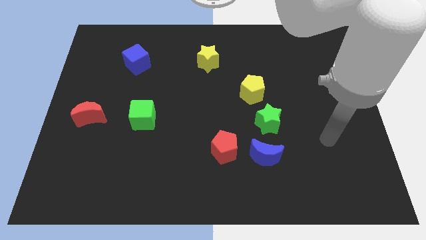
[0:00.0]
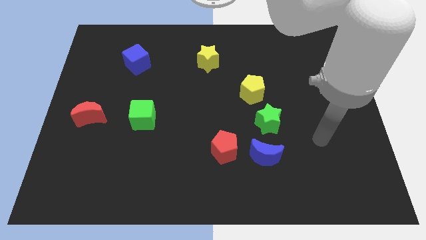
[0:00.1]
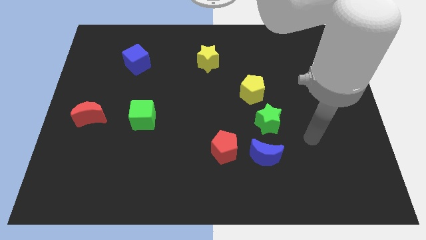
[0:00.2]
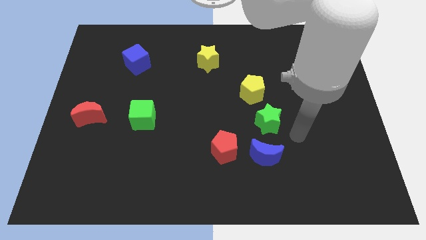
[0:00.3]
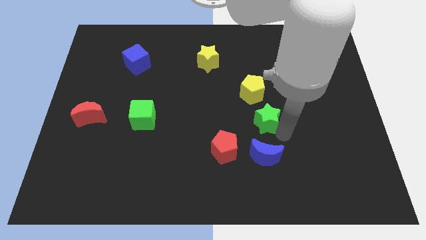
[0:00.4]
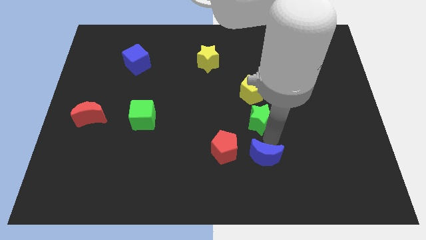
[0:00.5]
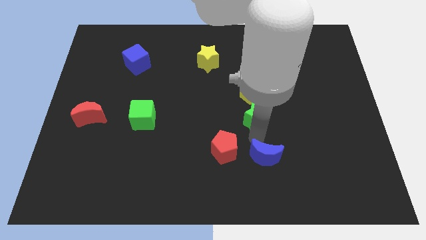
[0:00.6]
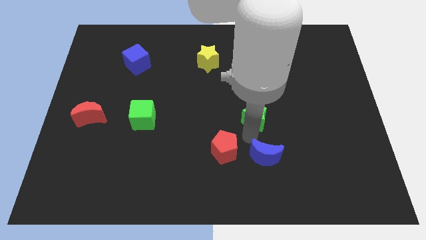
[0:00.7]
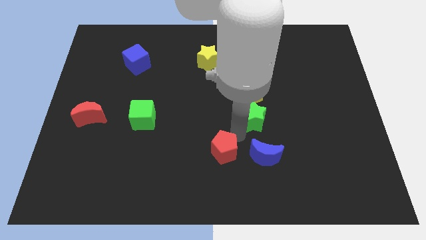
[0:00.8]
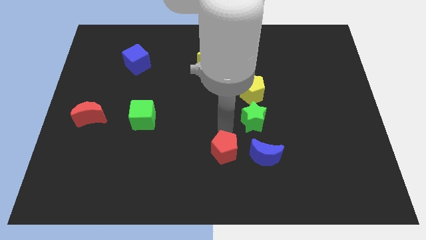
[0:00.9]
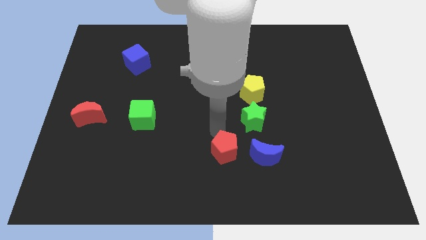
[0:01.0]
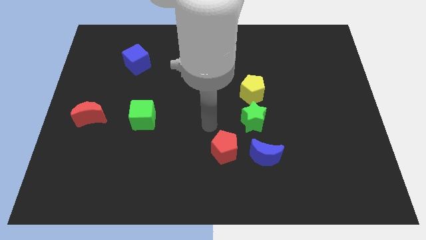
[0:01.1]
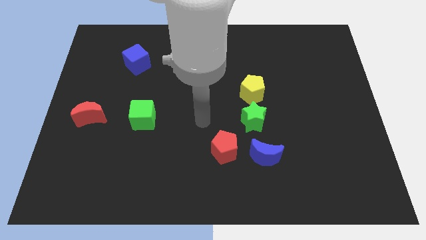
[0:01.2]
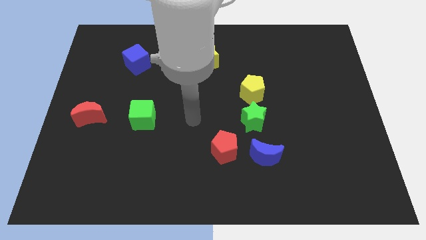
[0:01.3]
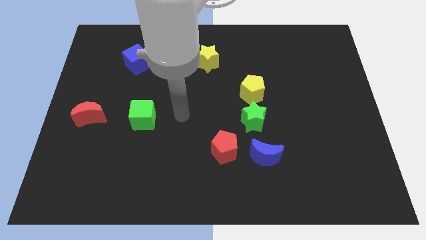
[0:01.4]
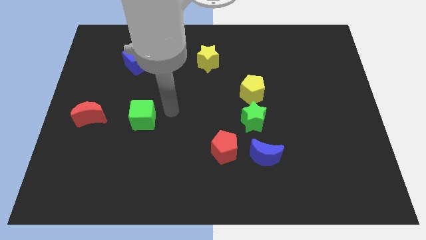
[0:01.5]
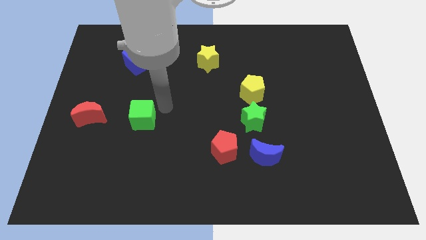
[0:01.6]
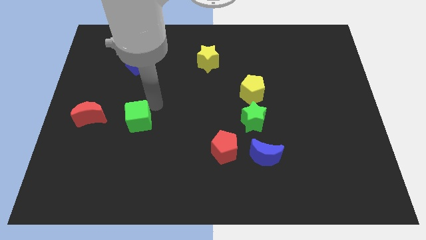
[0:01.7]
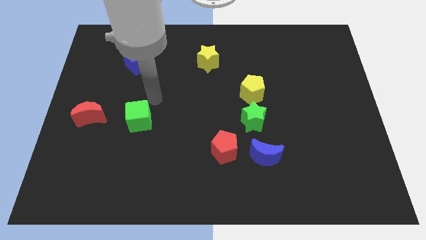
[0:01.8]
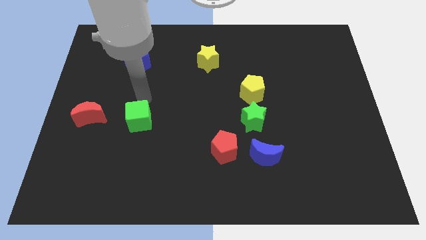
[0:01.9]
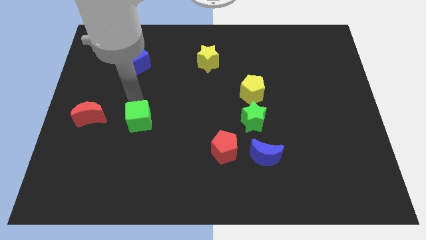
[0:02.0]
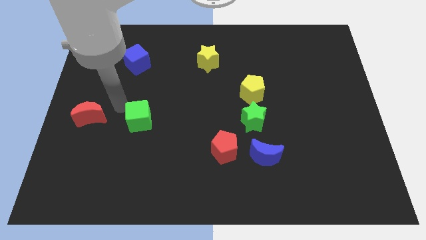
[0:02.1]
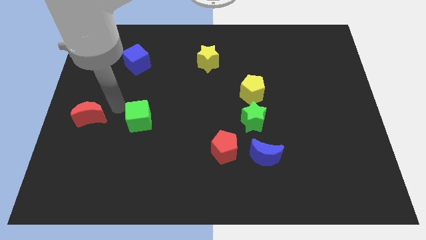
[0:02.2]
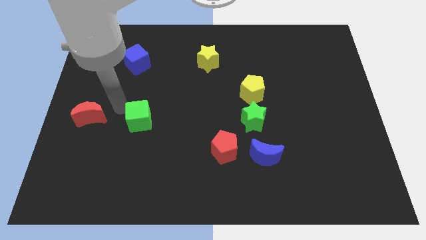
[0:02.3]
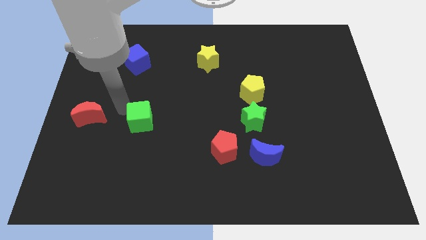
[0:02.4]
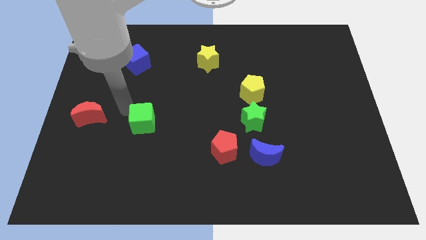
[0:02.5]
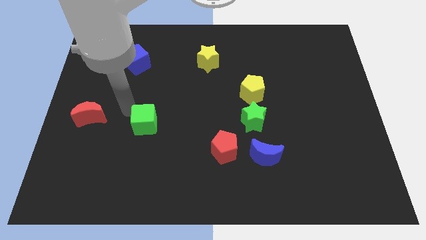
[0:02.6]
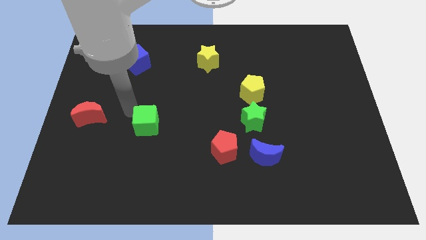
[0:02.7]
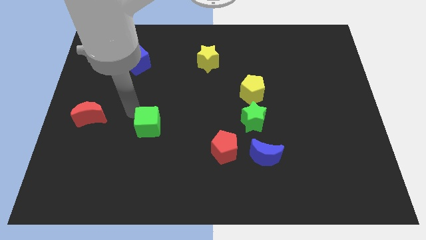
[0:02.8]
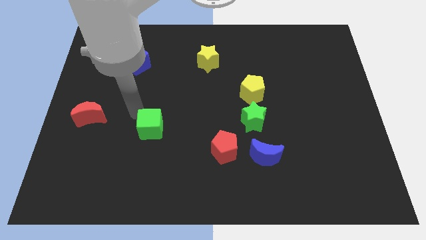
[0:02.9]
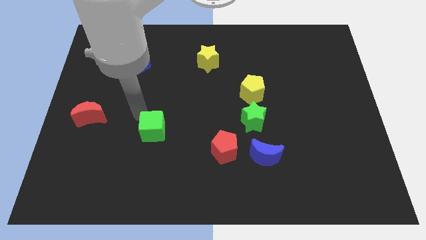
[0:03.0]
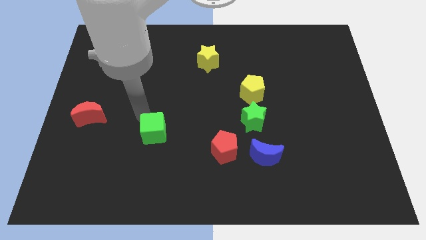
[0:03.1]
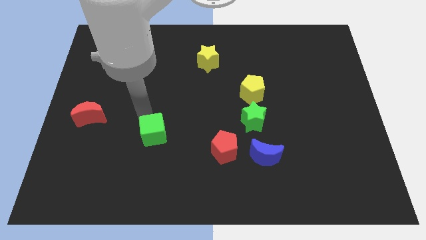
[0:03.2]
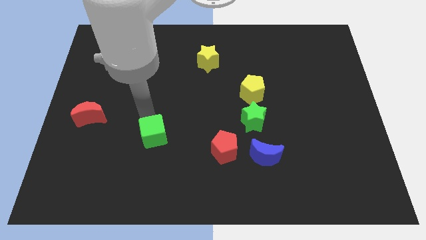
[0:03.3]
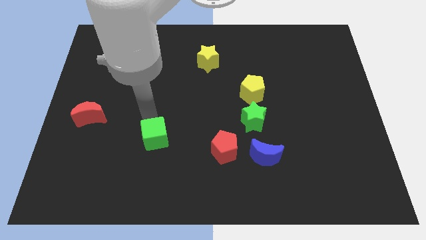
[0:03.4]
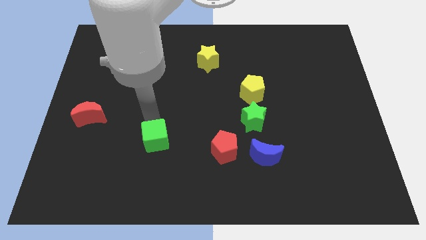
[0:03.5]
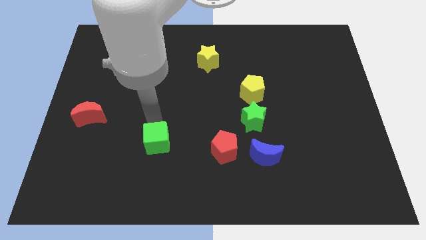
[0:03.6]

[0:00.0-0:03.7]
slightly push the green cube down and then to the right

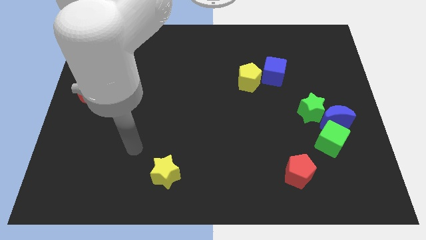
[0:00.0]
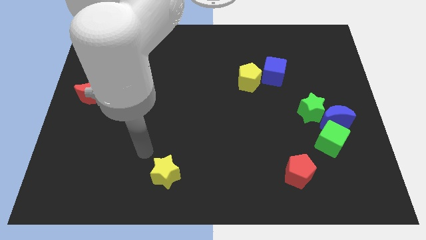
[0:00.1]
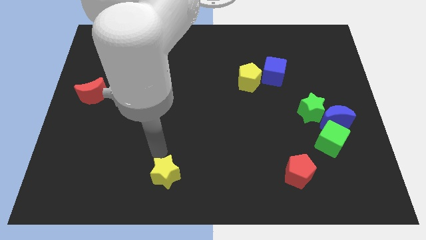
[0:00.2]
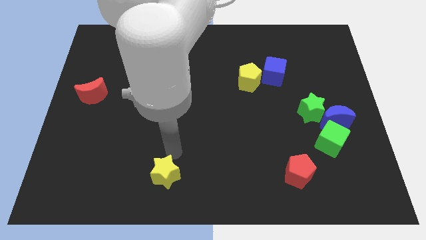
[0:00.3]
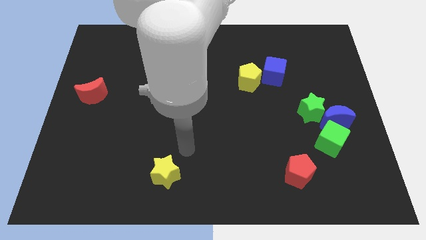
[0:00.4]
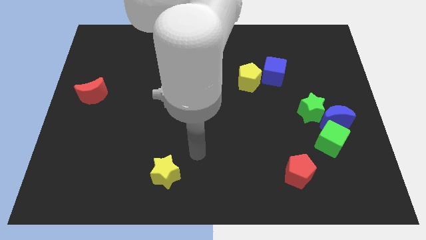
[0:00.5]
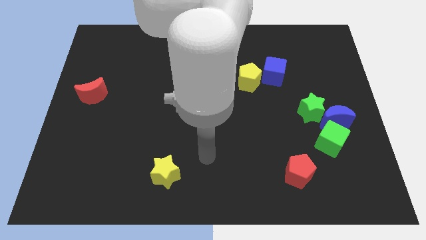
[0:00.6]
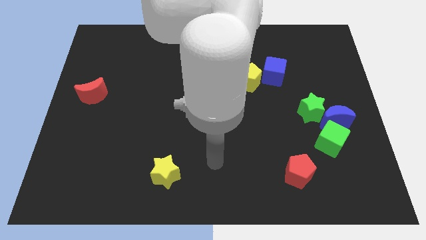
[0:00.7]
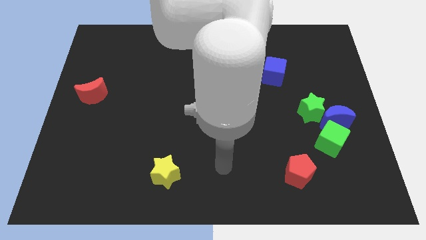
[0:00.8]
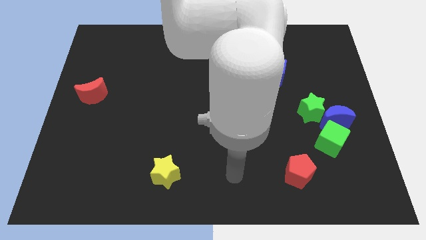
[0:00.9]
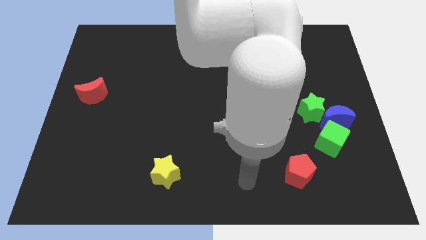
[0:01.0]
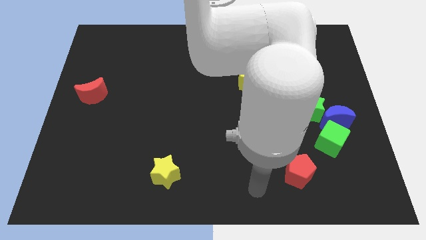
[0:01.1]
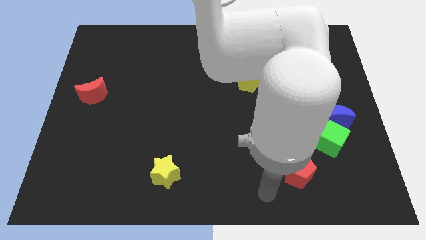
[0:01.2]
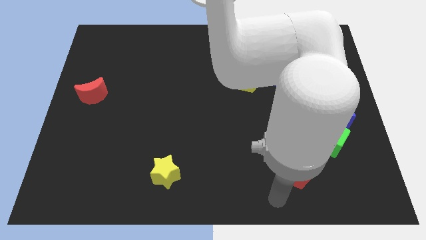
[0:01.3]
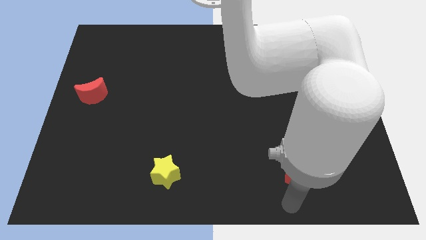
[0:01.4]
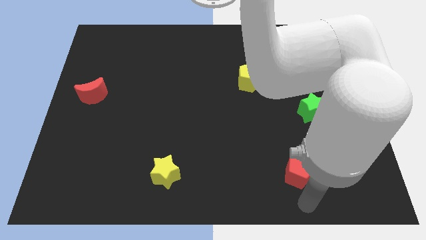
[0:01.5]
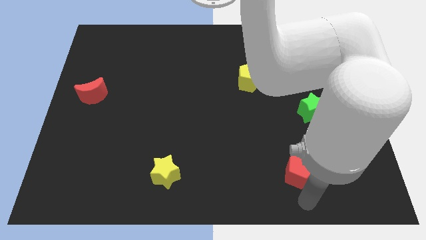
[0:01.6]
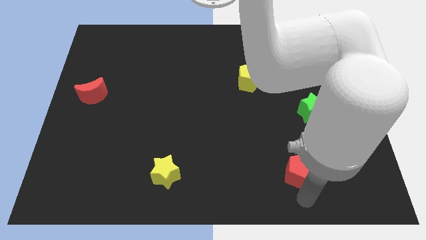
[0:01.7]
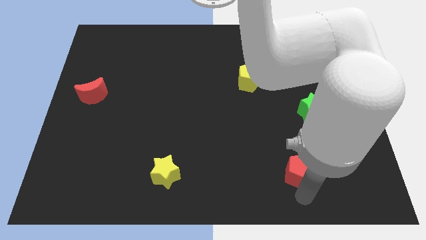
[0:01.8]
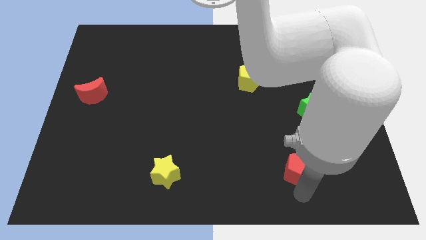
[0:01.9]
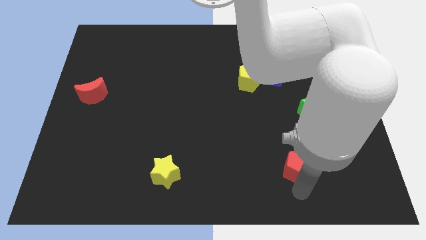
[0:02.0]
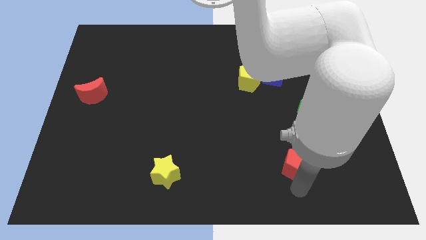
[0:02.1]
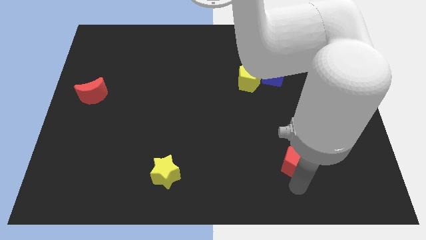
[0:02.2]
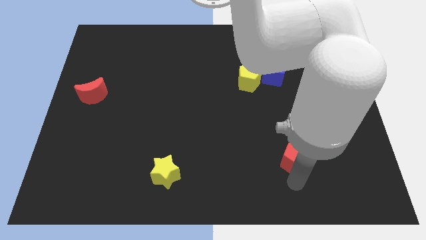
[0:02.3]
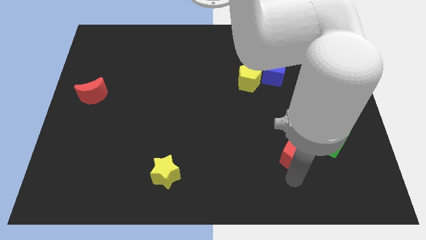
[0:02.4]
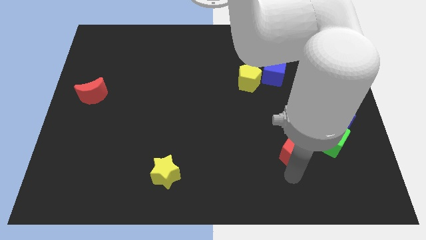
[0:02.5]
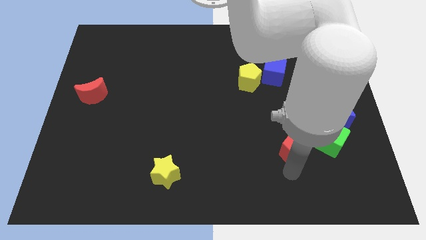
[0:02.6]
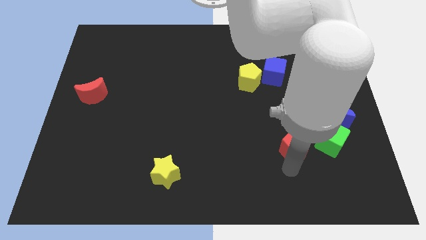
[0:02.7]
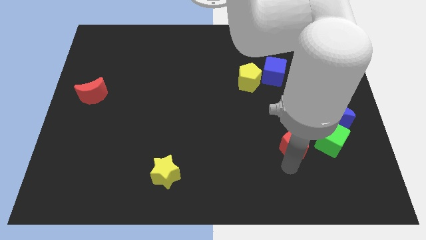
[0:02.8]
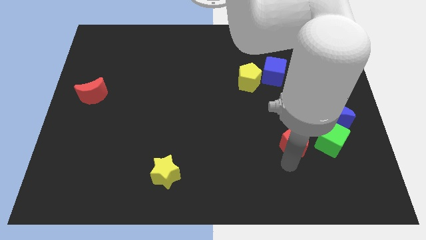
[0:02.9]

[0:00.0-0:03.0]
slightly slide the red pentagon up

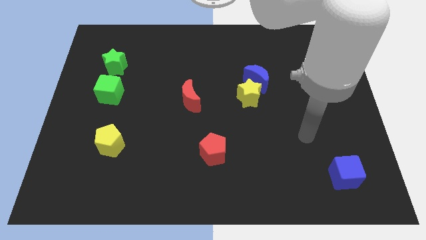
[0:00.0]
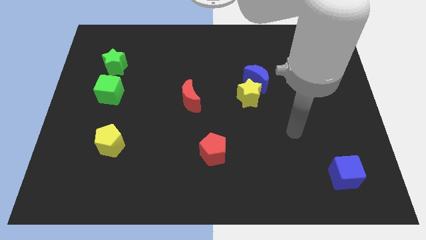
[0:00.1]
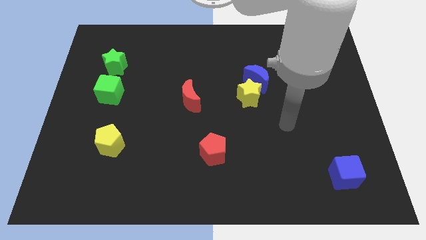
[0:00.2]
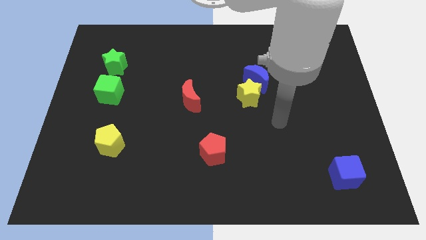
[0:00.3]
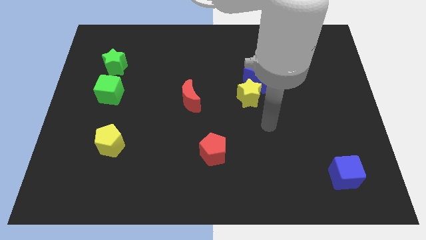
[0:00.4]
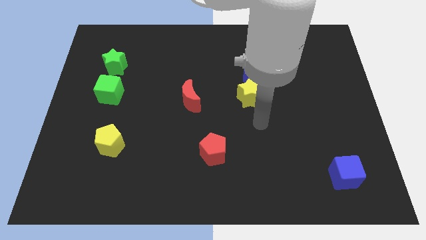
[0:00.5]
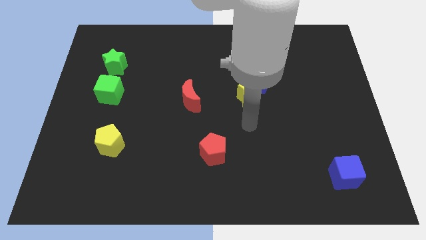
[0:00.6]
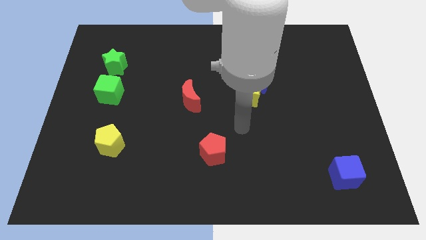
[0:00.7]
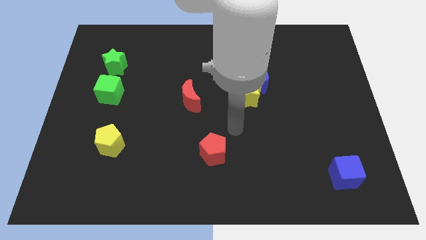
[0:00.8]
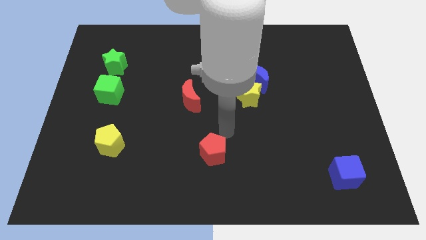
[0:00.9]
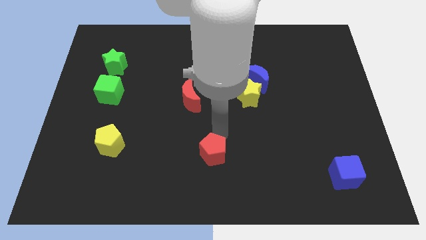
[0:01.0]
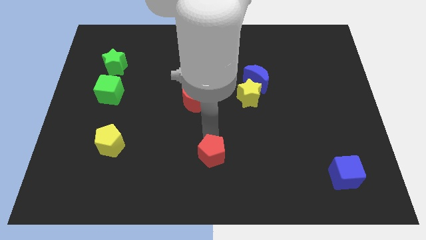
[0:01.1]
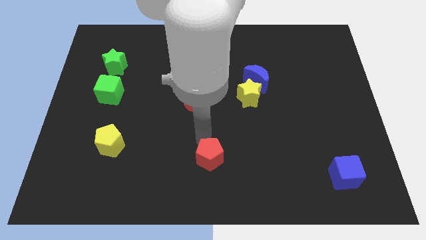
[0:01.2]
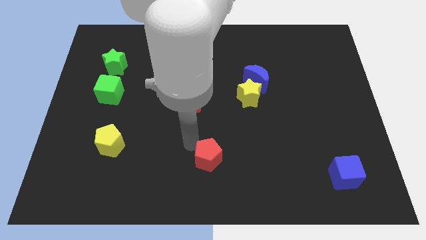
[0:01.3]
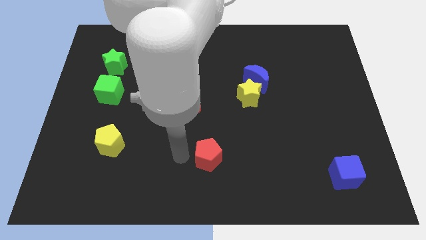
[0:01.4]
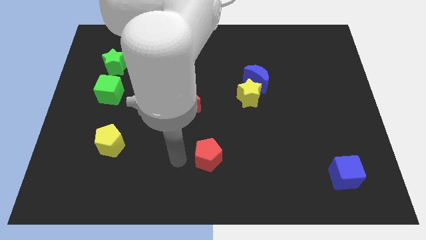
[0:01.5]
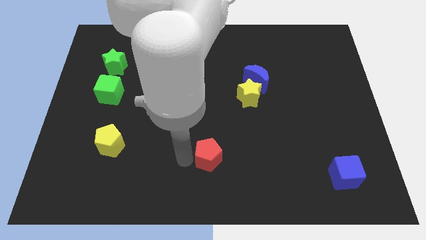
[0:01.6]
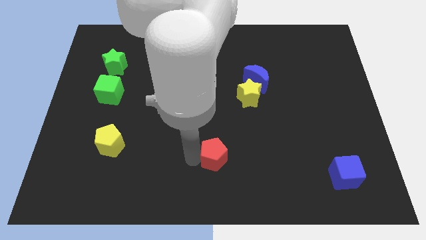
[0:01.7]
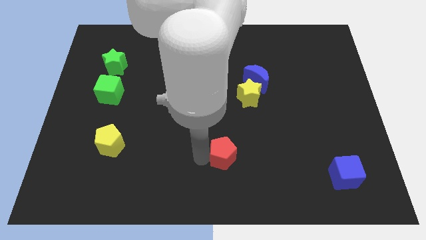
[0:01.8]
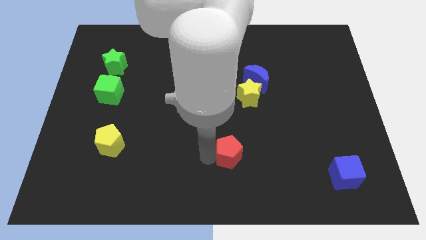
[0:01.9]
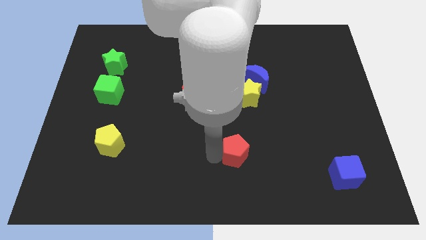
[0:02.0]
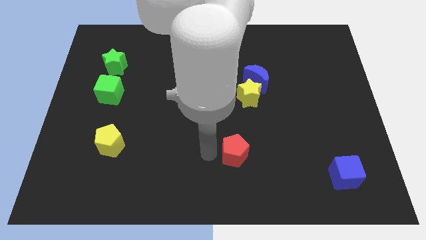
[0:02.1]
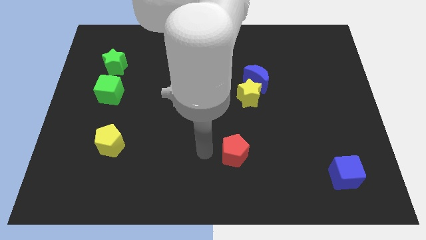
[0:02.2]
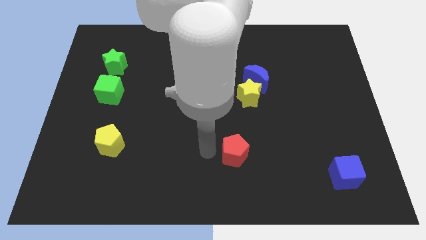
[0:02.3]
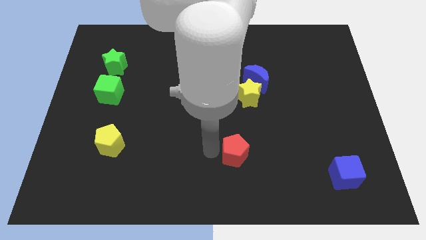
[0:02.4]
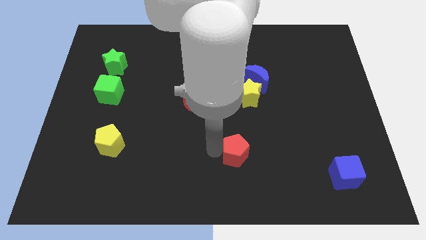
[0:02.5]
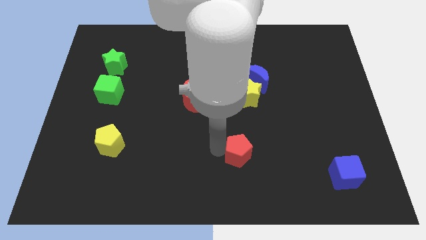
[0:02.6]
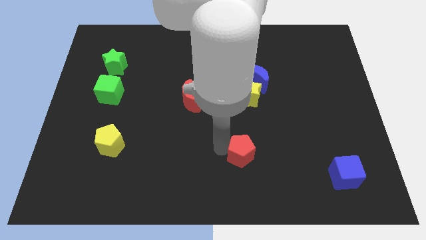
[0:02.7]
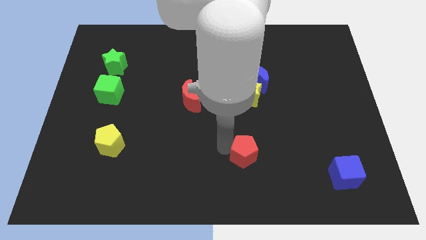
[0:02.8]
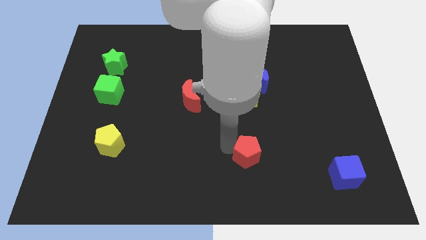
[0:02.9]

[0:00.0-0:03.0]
move the red pentagon right a little bit
